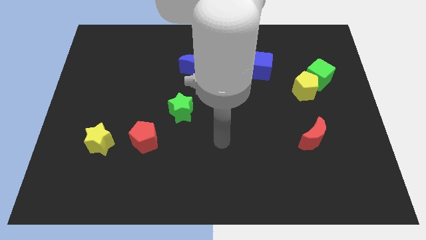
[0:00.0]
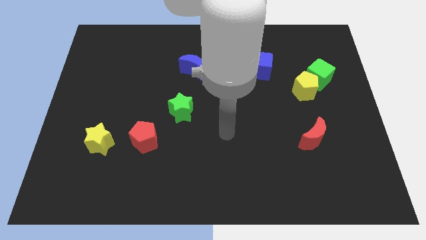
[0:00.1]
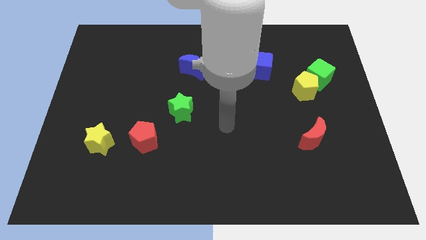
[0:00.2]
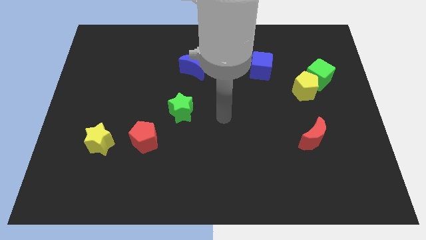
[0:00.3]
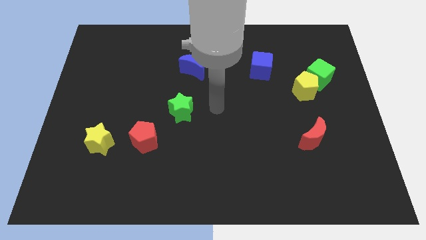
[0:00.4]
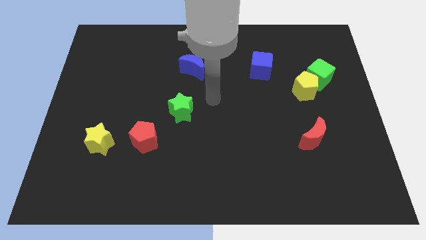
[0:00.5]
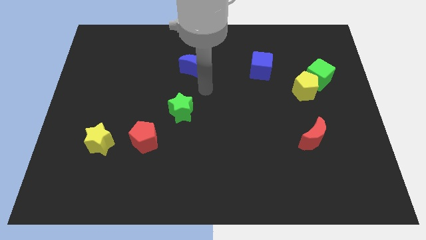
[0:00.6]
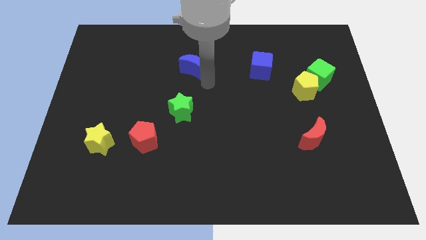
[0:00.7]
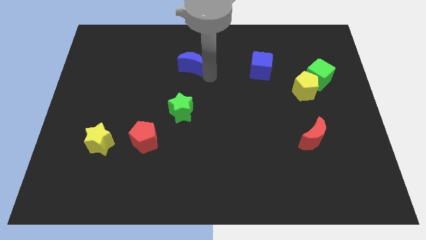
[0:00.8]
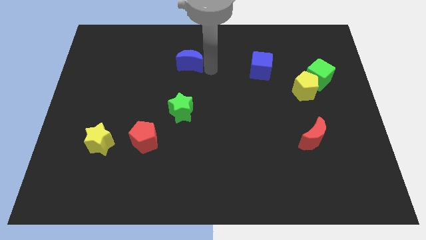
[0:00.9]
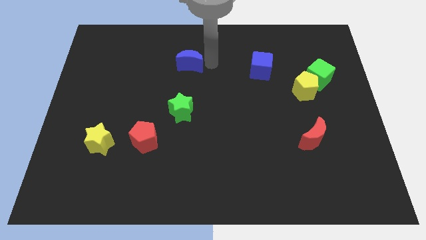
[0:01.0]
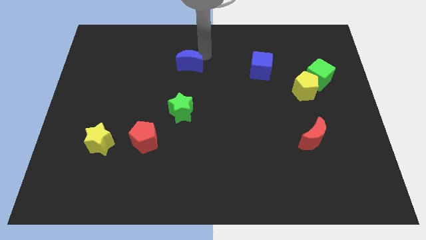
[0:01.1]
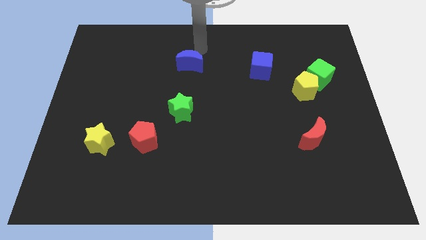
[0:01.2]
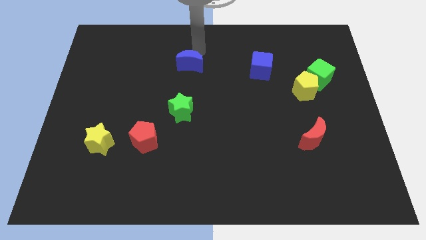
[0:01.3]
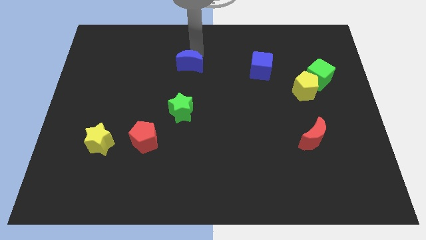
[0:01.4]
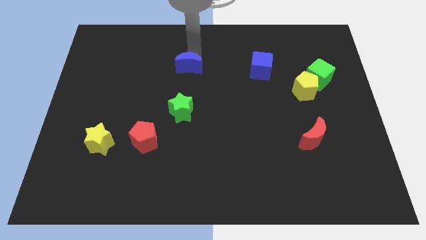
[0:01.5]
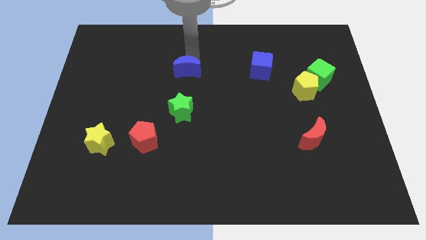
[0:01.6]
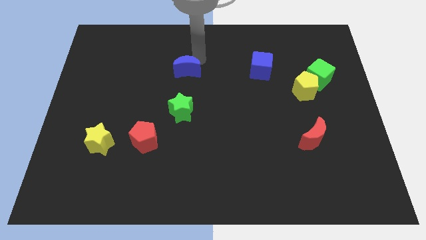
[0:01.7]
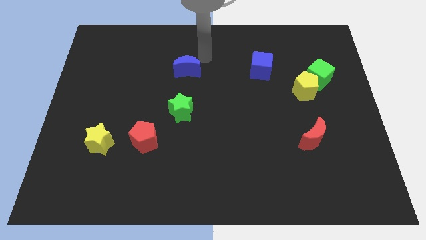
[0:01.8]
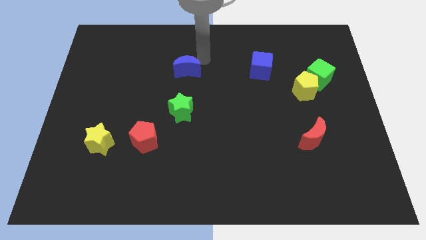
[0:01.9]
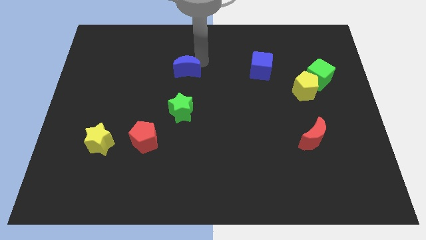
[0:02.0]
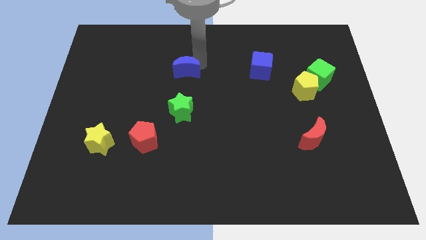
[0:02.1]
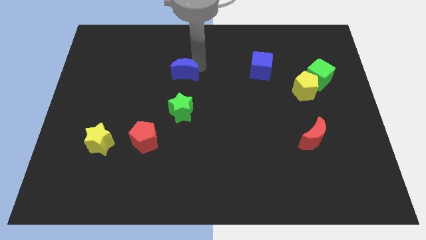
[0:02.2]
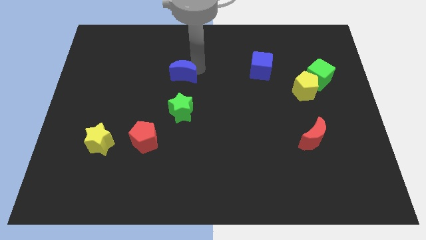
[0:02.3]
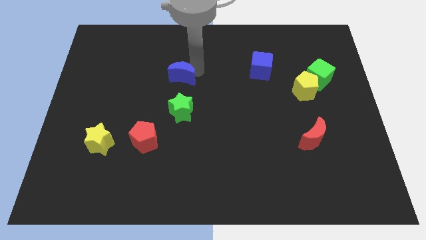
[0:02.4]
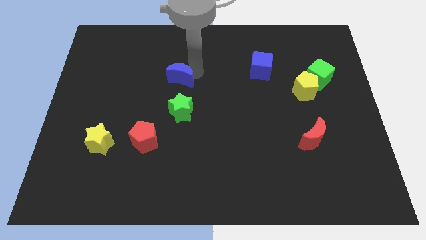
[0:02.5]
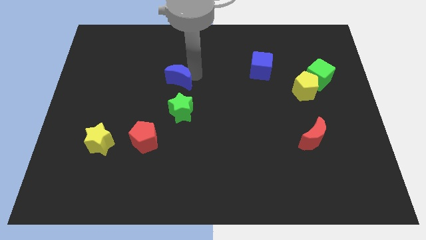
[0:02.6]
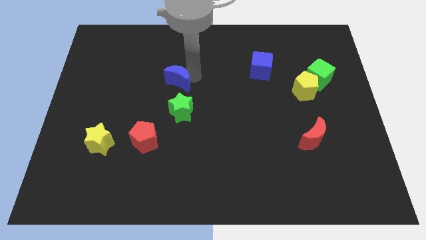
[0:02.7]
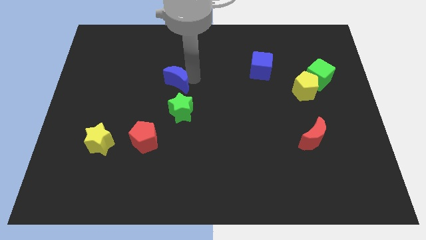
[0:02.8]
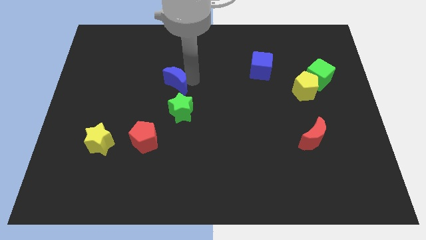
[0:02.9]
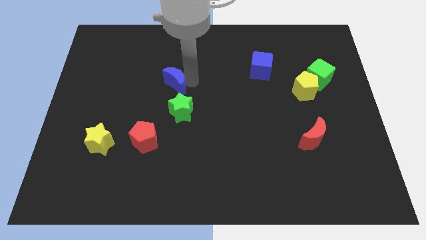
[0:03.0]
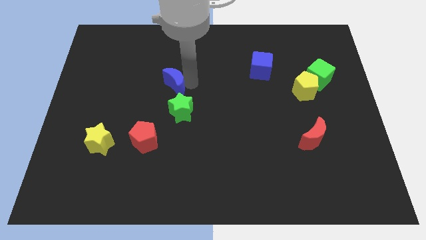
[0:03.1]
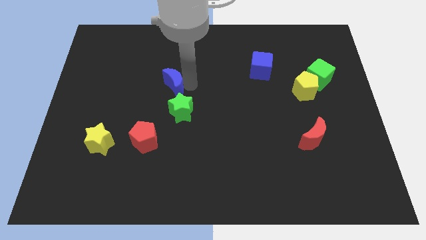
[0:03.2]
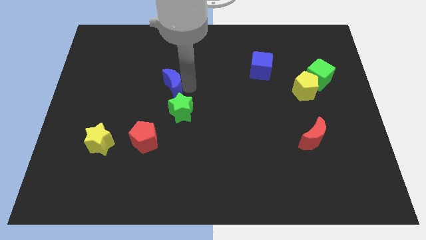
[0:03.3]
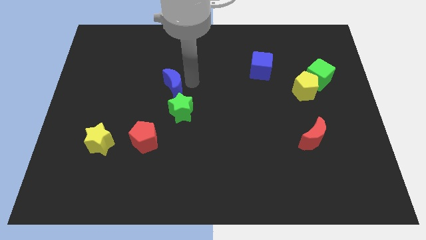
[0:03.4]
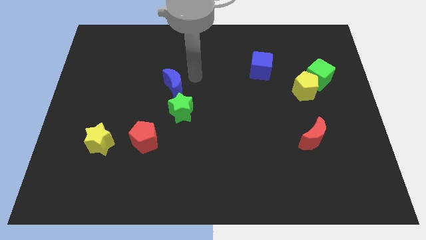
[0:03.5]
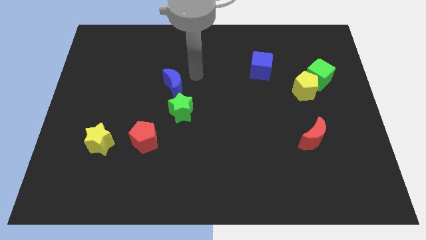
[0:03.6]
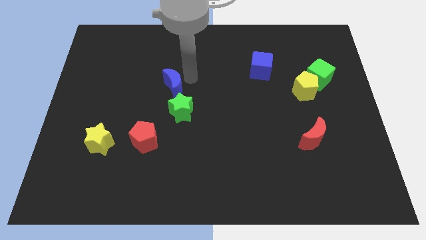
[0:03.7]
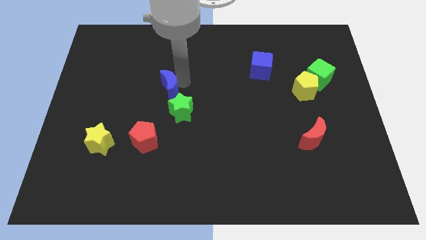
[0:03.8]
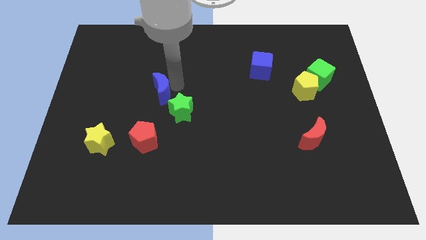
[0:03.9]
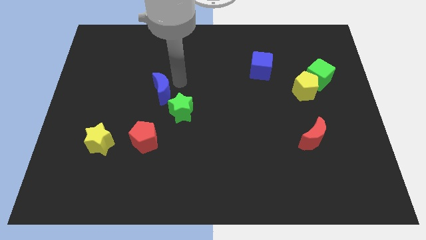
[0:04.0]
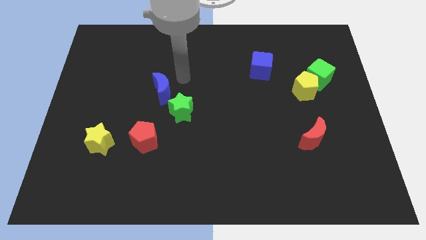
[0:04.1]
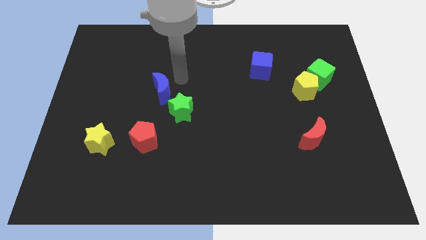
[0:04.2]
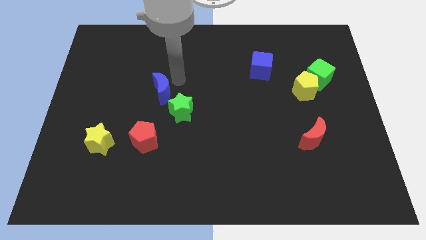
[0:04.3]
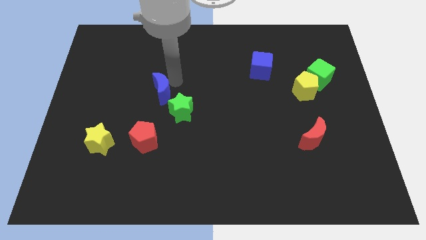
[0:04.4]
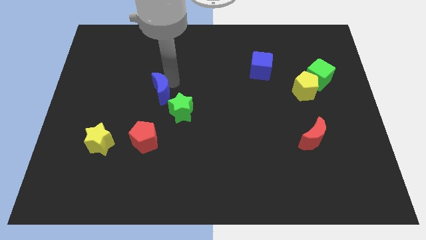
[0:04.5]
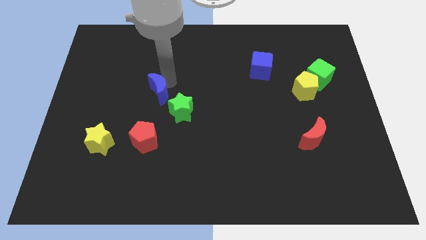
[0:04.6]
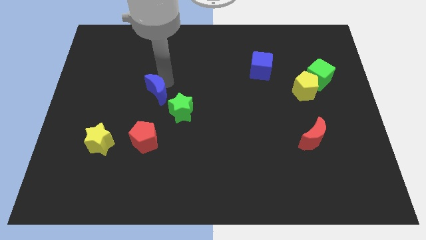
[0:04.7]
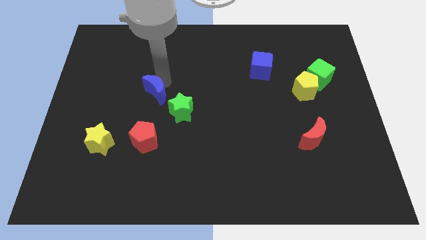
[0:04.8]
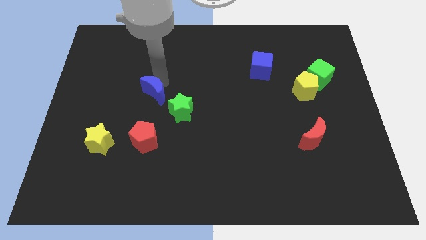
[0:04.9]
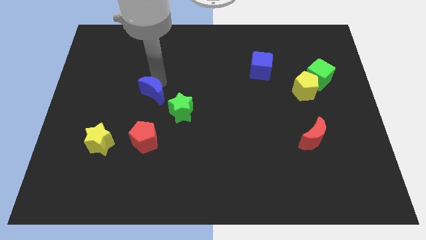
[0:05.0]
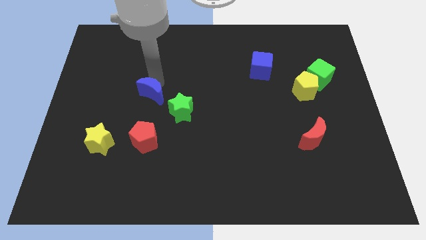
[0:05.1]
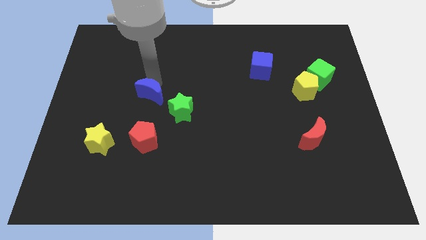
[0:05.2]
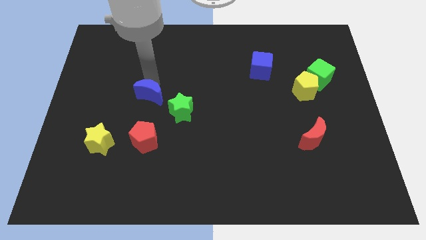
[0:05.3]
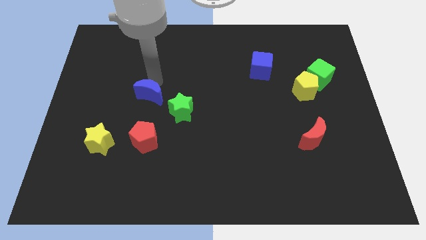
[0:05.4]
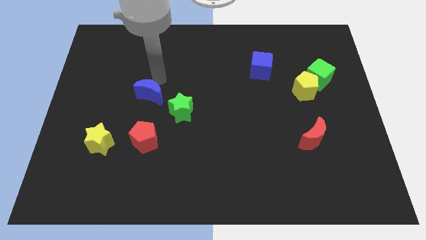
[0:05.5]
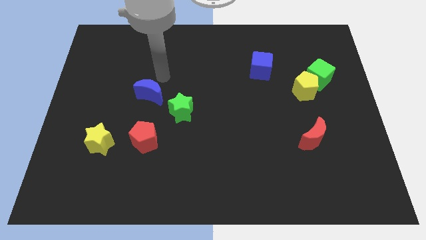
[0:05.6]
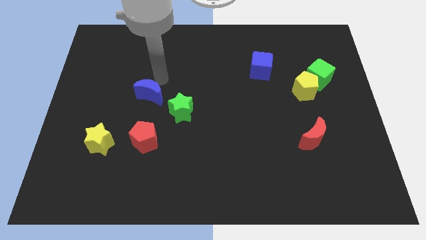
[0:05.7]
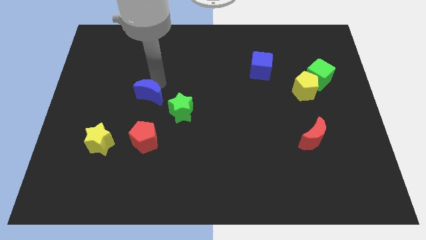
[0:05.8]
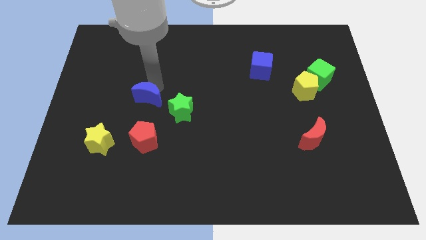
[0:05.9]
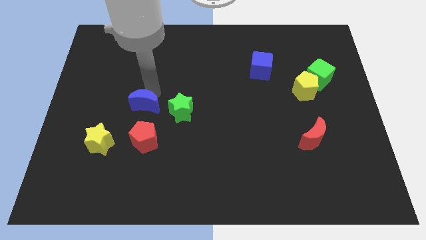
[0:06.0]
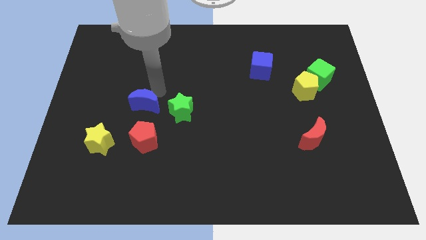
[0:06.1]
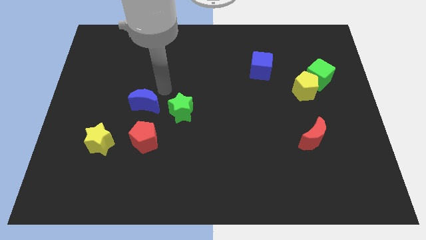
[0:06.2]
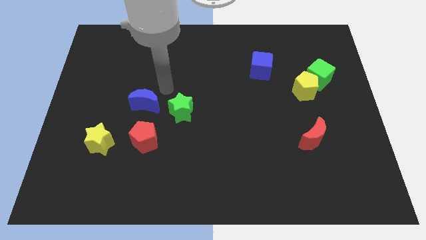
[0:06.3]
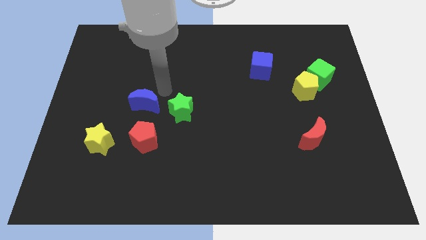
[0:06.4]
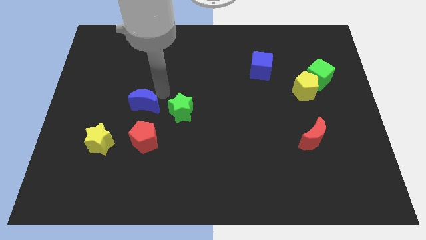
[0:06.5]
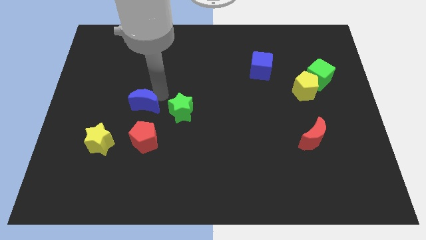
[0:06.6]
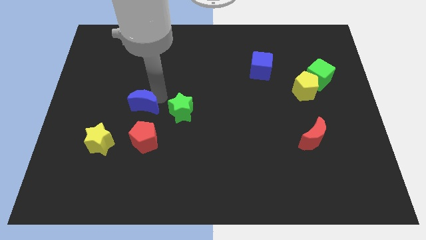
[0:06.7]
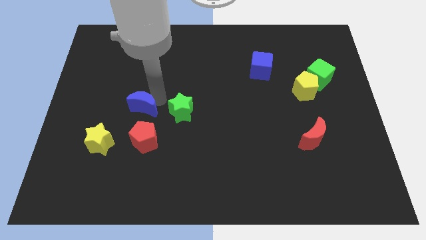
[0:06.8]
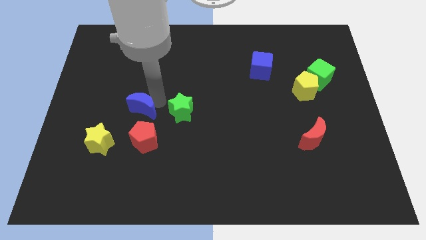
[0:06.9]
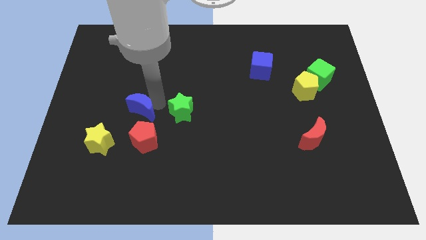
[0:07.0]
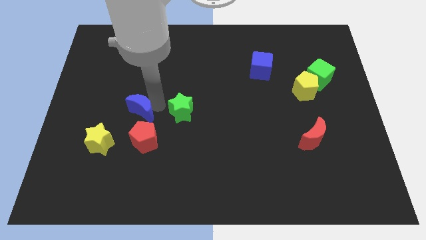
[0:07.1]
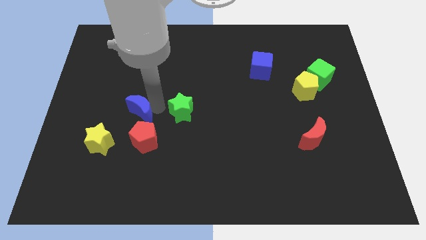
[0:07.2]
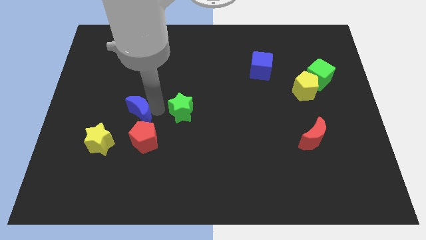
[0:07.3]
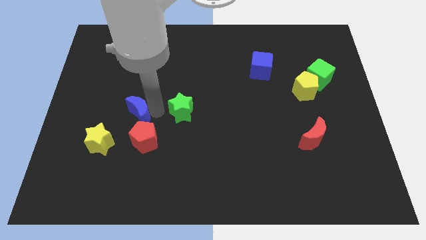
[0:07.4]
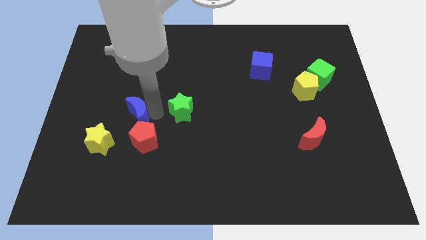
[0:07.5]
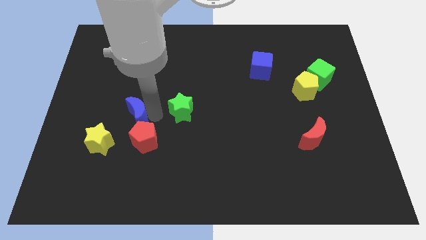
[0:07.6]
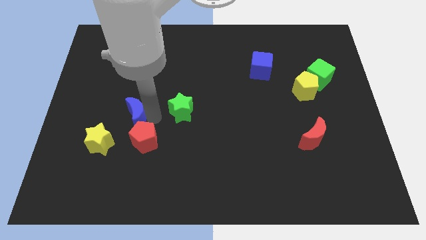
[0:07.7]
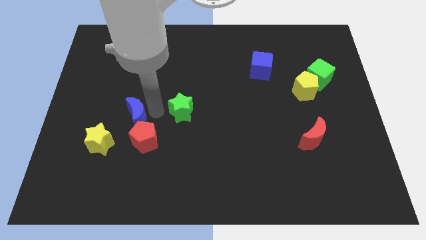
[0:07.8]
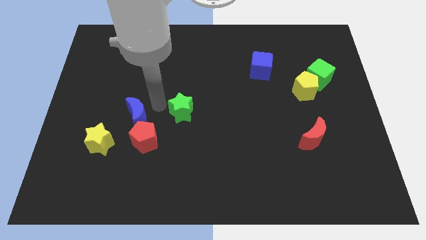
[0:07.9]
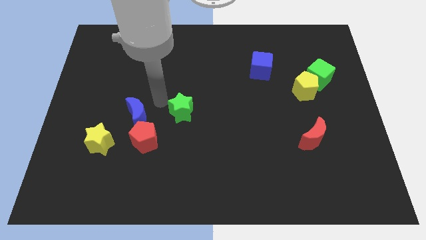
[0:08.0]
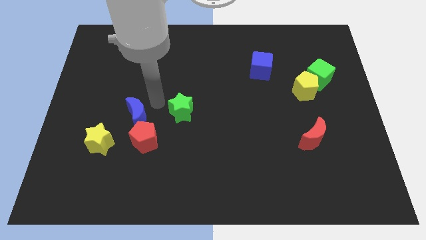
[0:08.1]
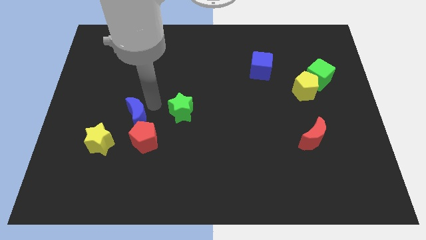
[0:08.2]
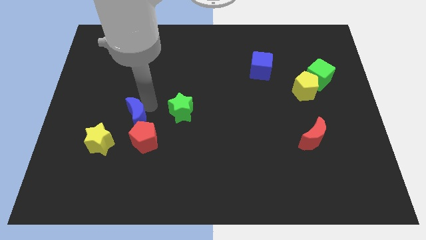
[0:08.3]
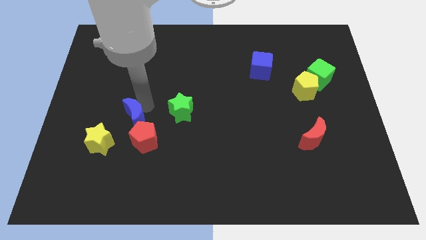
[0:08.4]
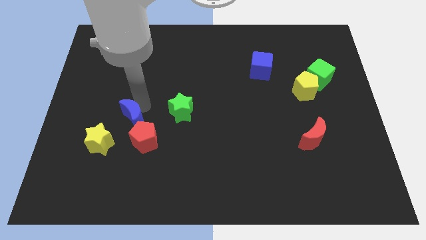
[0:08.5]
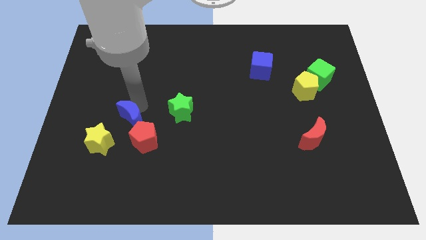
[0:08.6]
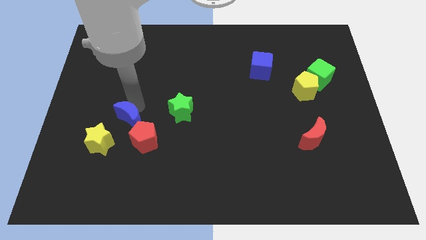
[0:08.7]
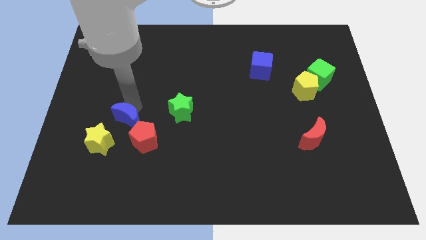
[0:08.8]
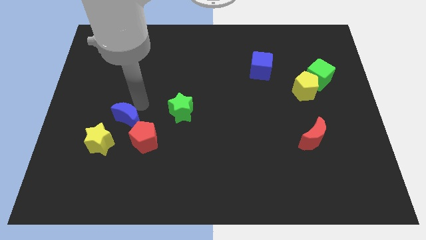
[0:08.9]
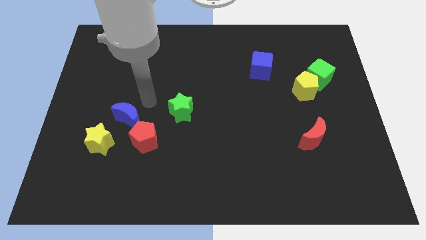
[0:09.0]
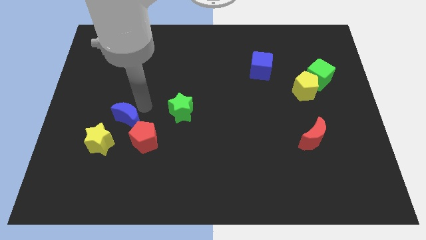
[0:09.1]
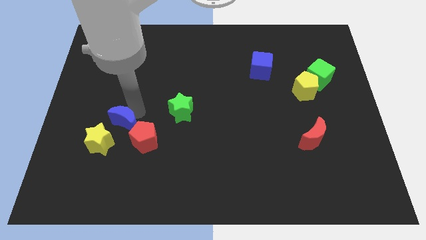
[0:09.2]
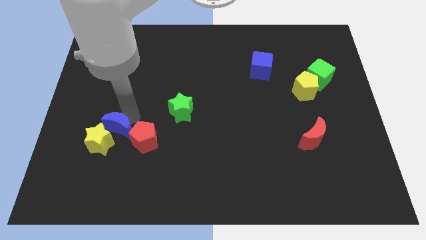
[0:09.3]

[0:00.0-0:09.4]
push the blue moon to the yellow star
